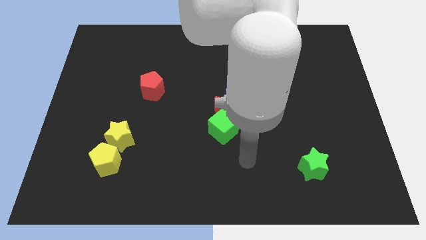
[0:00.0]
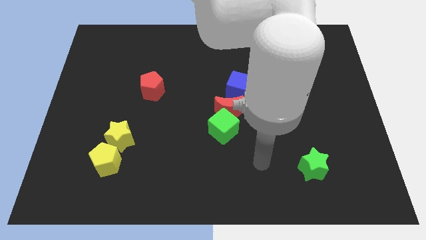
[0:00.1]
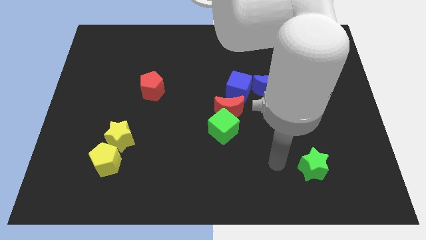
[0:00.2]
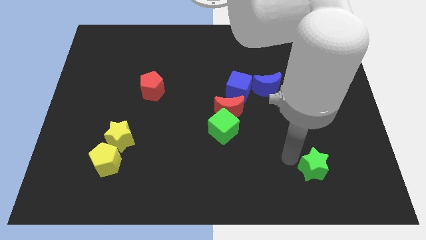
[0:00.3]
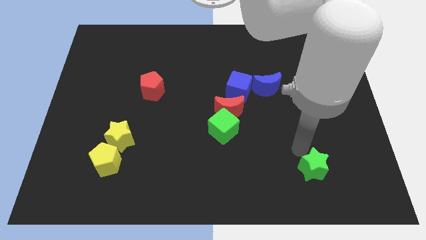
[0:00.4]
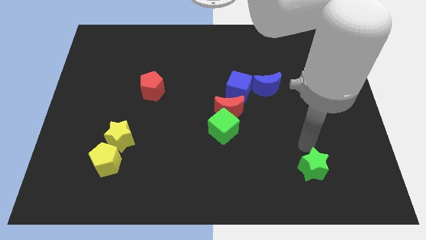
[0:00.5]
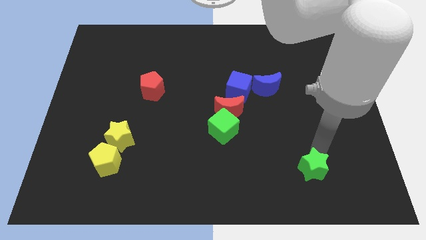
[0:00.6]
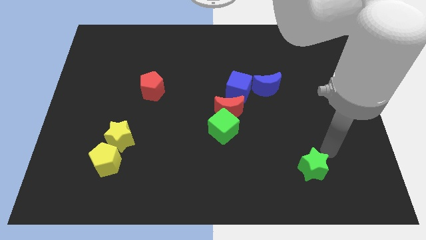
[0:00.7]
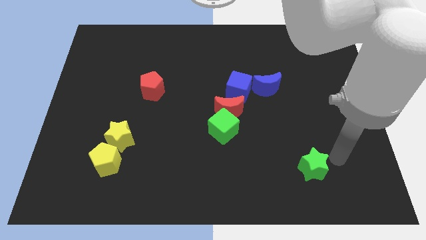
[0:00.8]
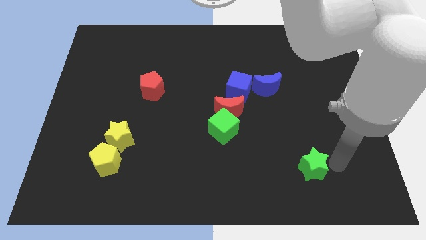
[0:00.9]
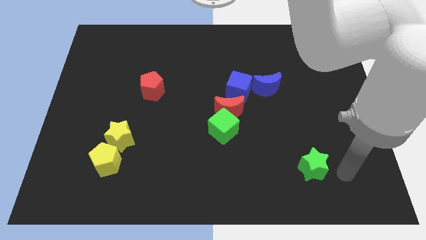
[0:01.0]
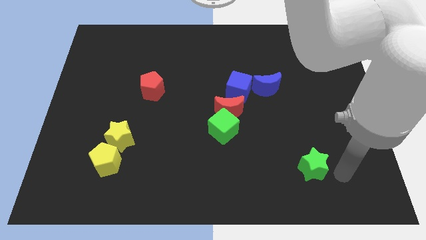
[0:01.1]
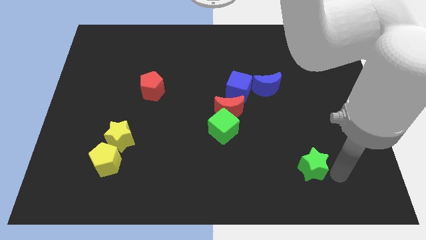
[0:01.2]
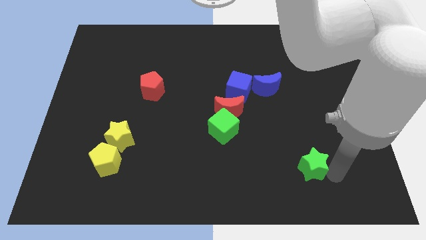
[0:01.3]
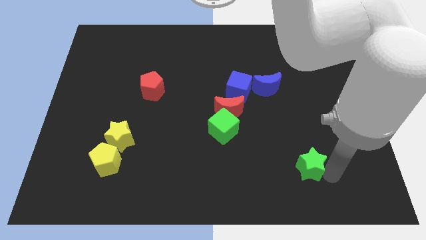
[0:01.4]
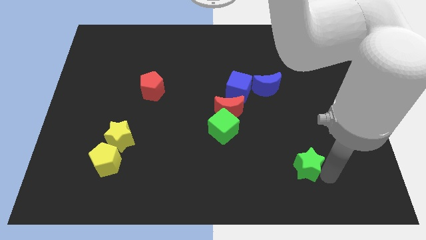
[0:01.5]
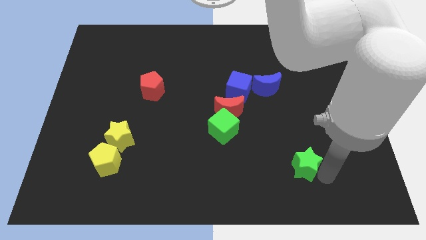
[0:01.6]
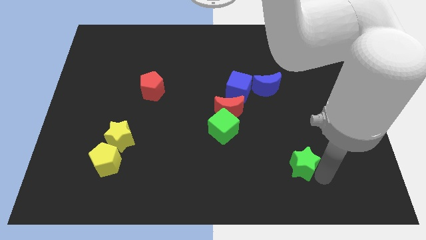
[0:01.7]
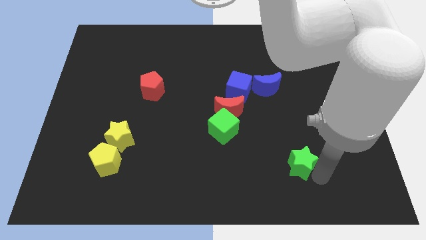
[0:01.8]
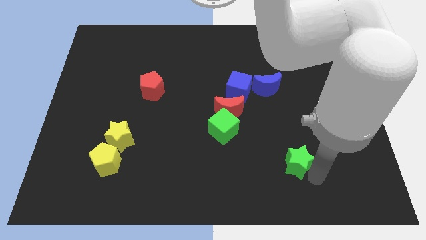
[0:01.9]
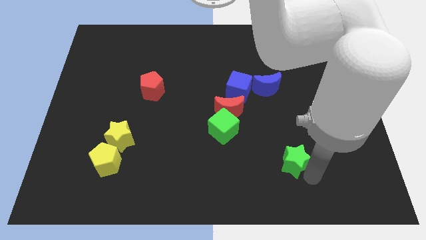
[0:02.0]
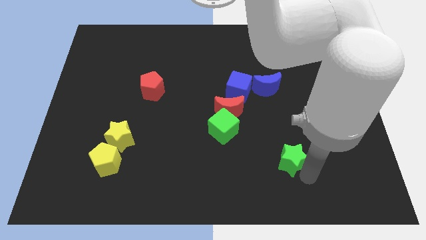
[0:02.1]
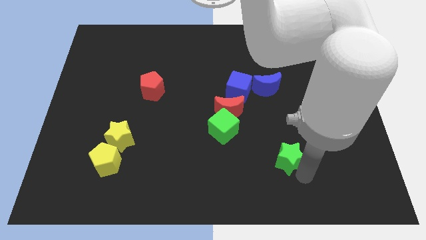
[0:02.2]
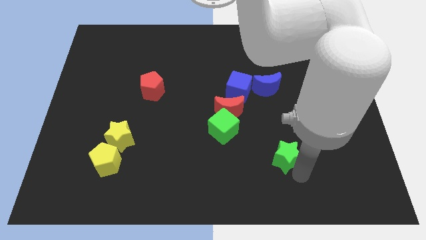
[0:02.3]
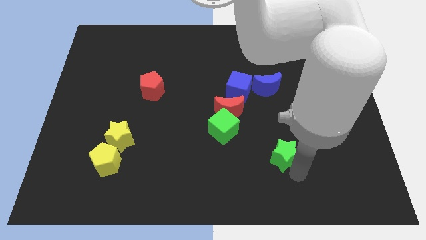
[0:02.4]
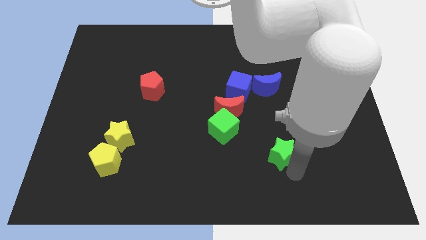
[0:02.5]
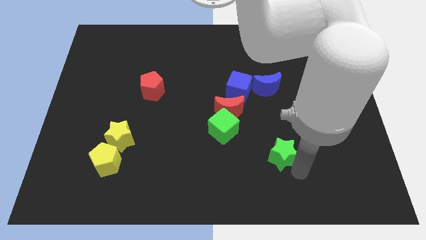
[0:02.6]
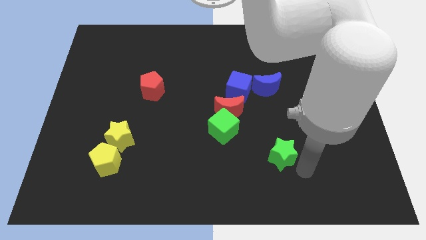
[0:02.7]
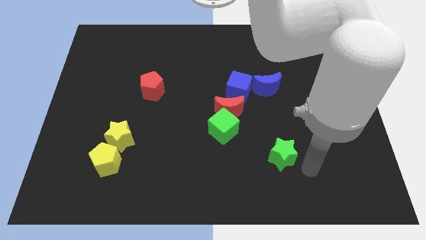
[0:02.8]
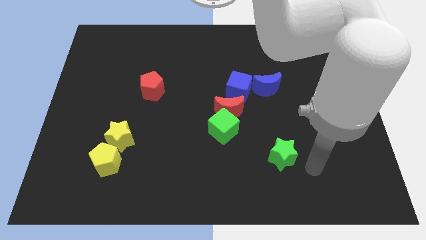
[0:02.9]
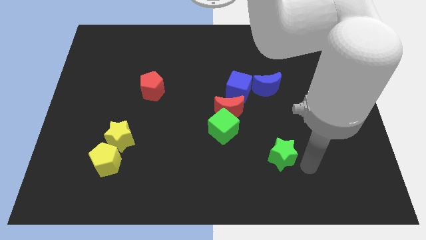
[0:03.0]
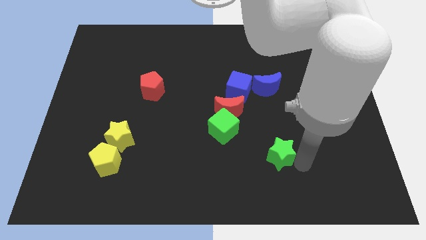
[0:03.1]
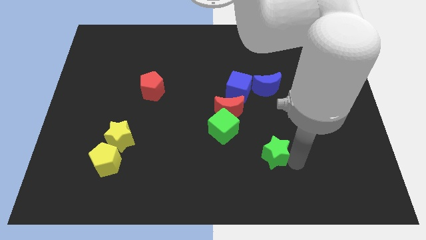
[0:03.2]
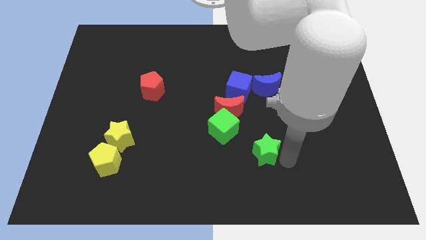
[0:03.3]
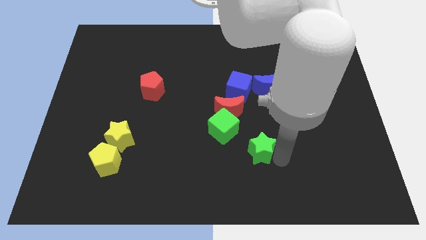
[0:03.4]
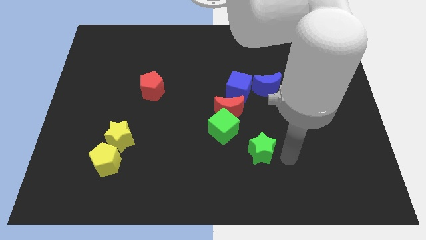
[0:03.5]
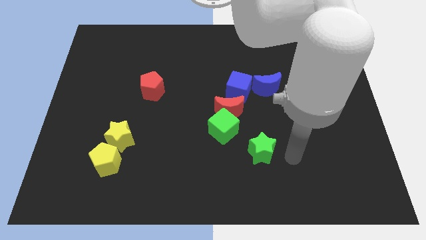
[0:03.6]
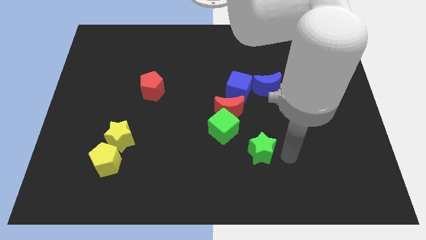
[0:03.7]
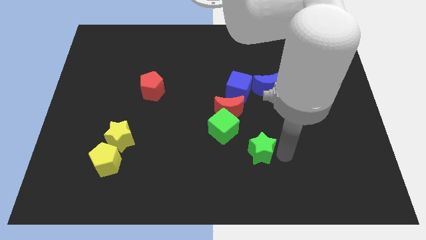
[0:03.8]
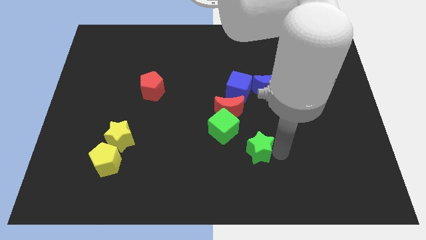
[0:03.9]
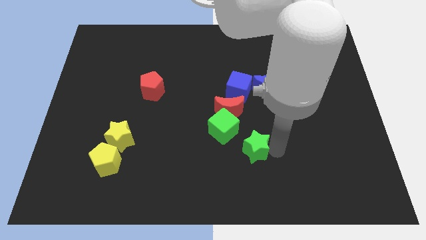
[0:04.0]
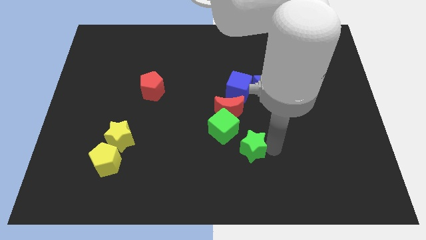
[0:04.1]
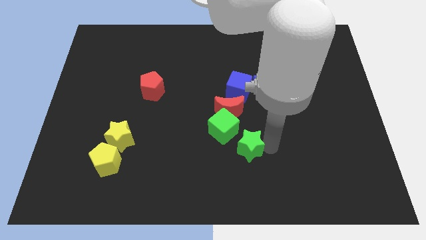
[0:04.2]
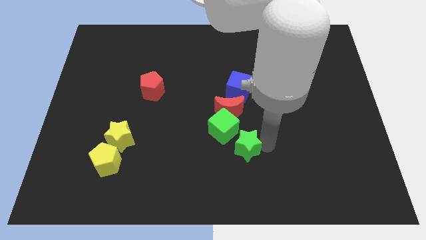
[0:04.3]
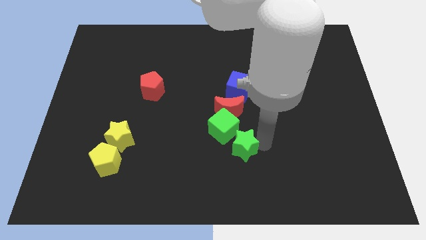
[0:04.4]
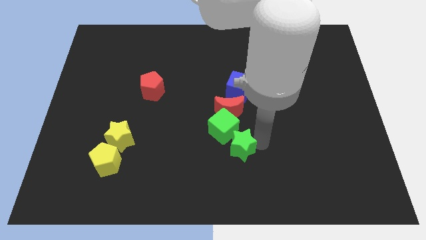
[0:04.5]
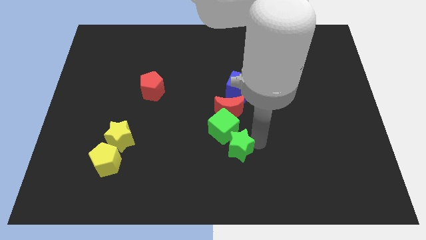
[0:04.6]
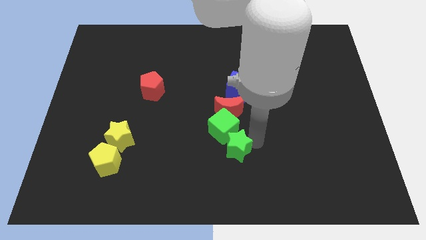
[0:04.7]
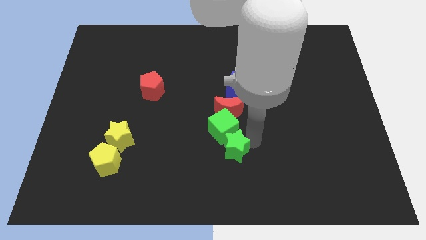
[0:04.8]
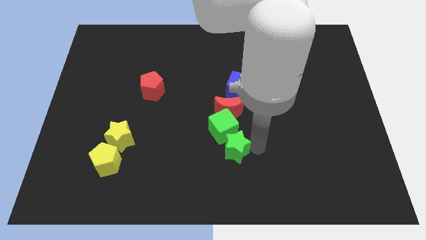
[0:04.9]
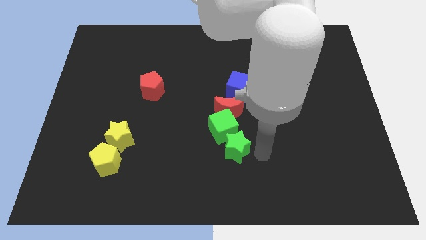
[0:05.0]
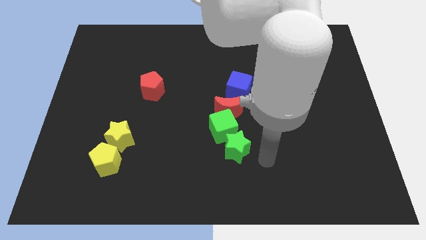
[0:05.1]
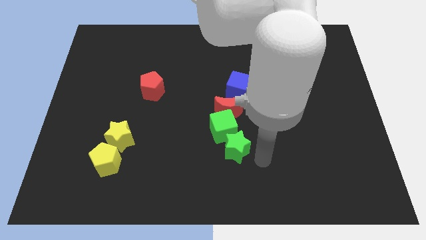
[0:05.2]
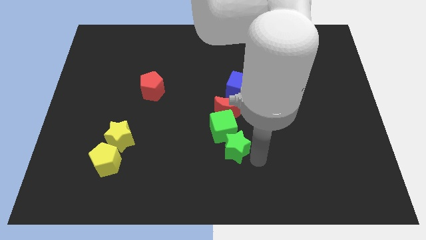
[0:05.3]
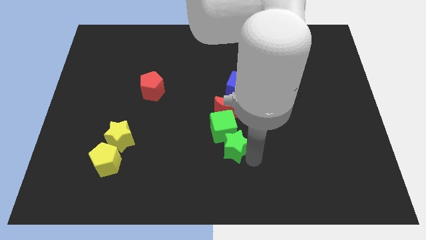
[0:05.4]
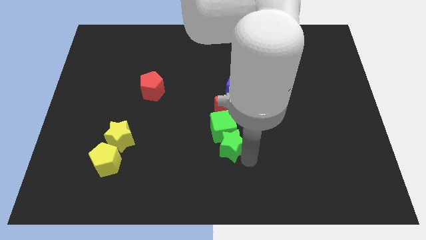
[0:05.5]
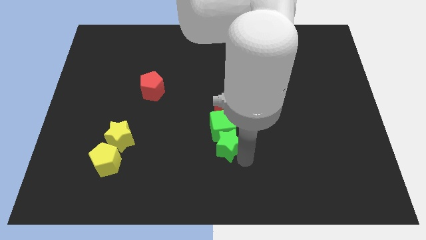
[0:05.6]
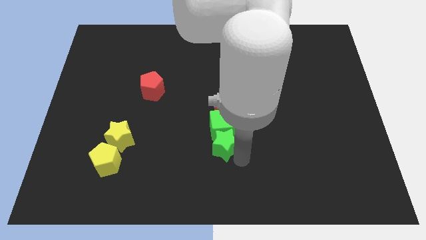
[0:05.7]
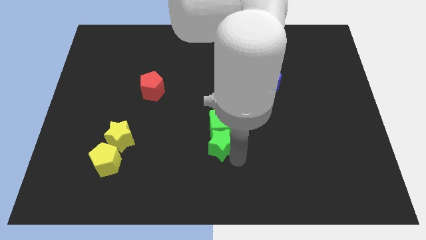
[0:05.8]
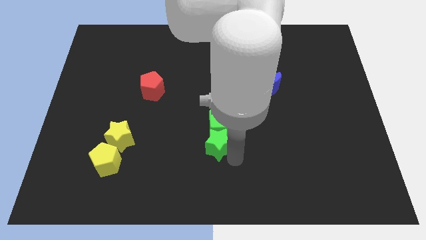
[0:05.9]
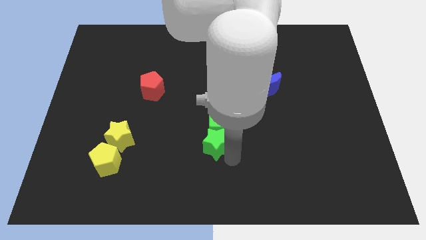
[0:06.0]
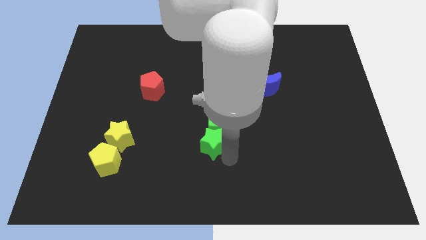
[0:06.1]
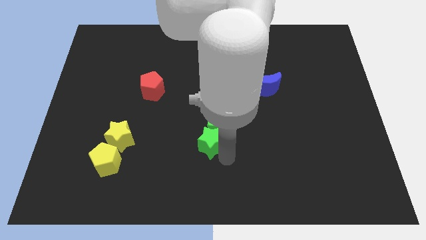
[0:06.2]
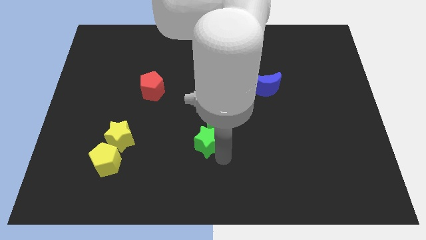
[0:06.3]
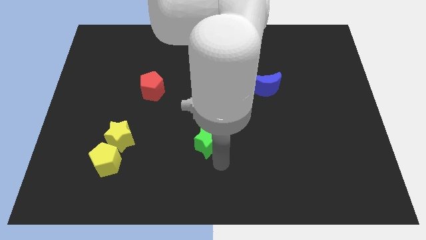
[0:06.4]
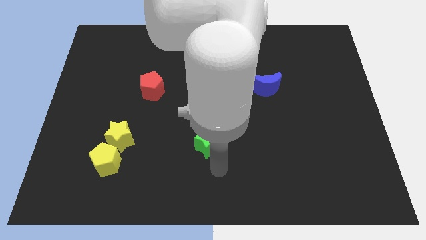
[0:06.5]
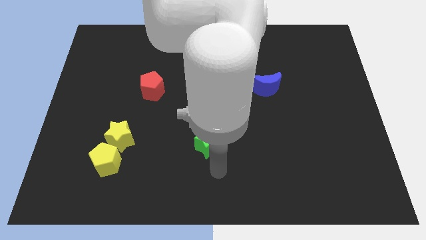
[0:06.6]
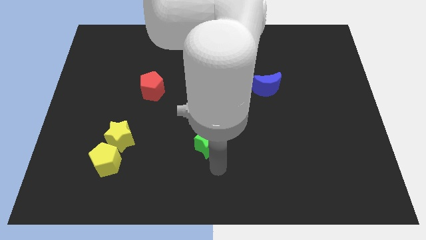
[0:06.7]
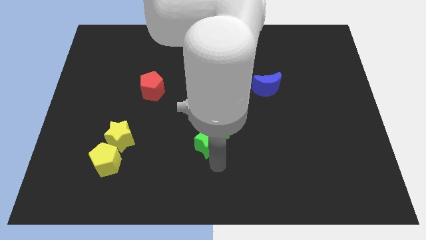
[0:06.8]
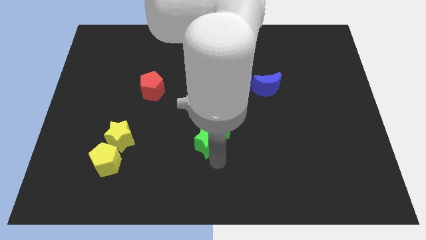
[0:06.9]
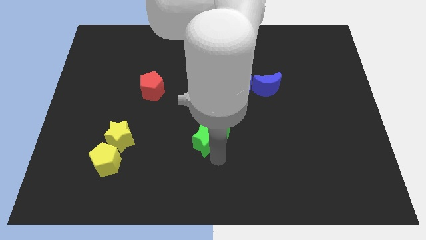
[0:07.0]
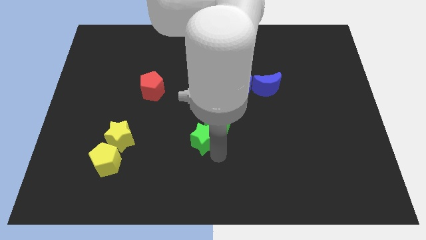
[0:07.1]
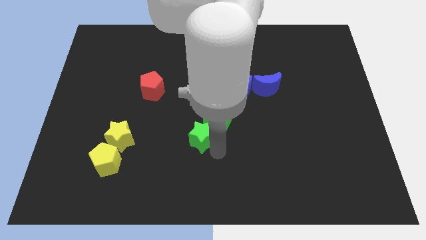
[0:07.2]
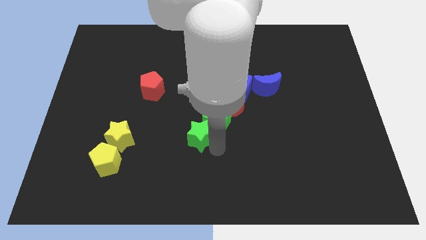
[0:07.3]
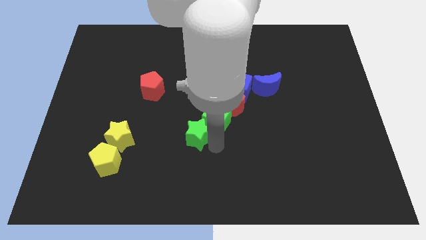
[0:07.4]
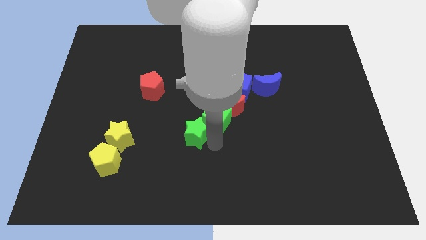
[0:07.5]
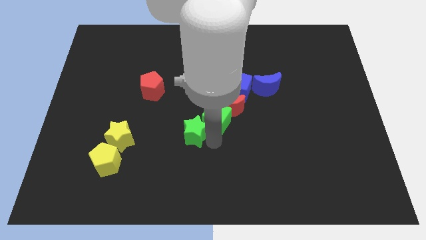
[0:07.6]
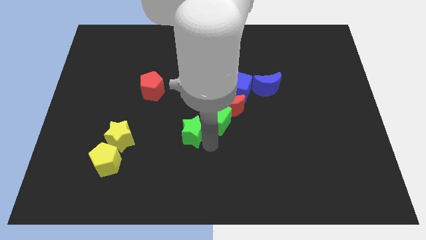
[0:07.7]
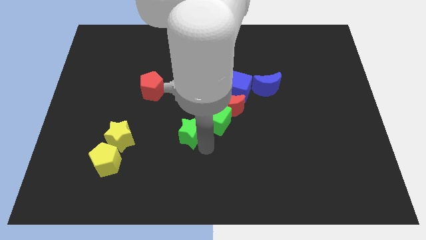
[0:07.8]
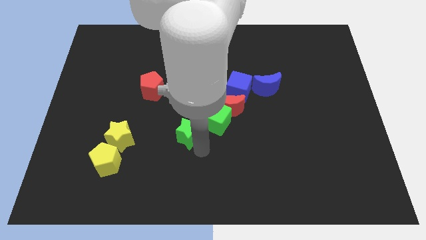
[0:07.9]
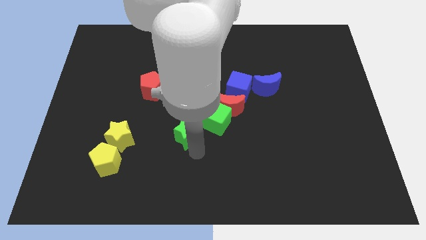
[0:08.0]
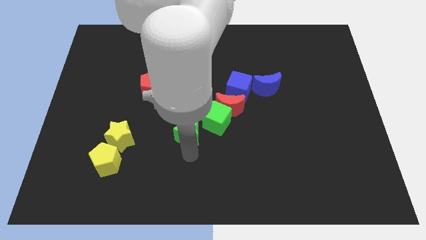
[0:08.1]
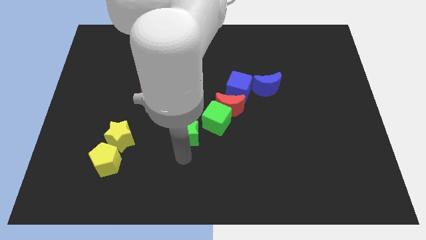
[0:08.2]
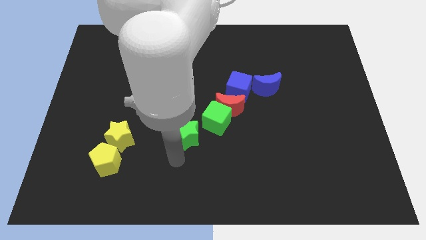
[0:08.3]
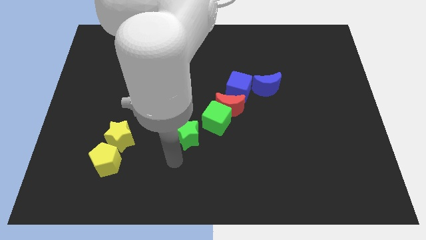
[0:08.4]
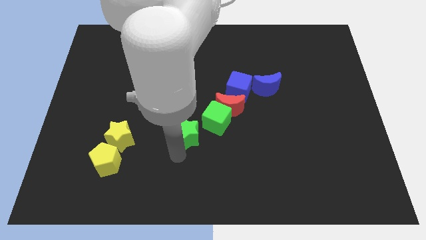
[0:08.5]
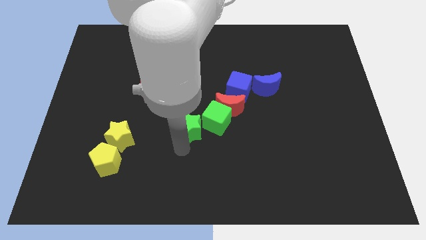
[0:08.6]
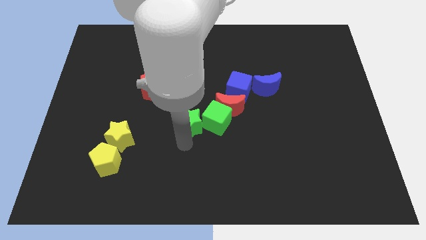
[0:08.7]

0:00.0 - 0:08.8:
slide the green star up and then left
